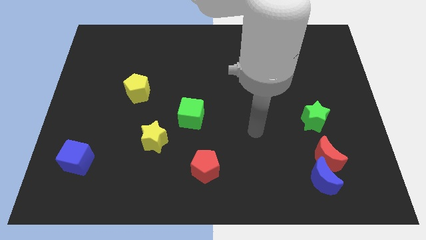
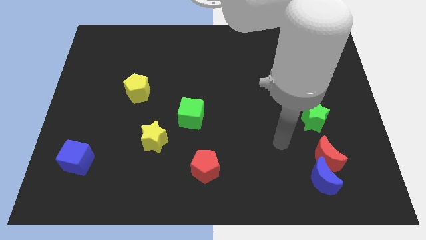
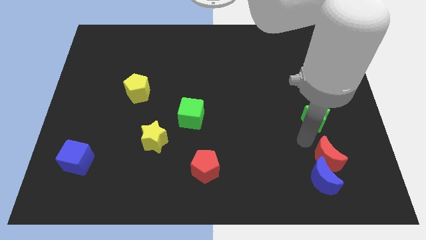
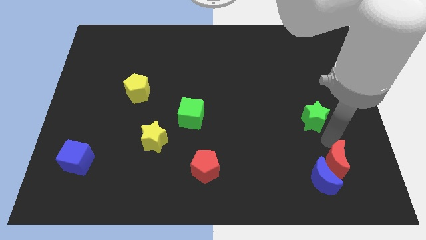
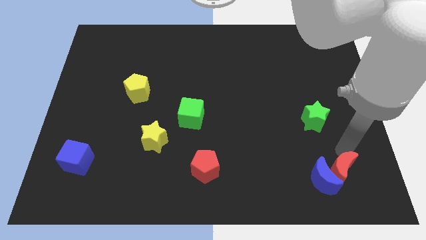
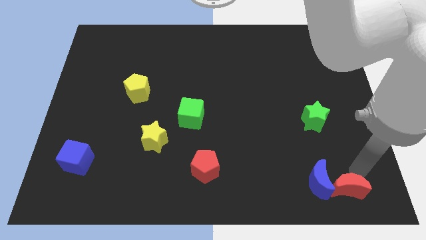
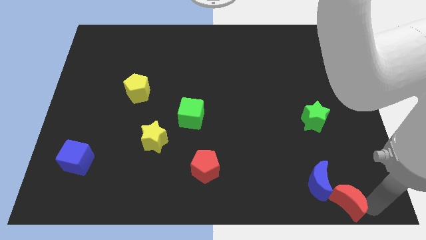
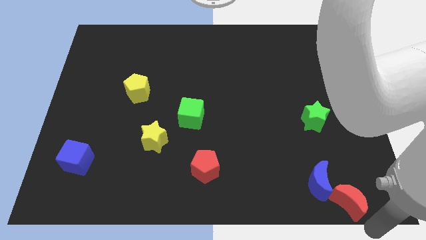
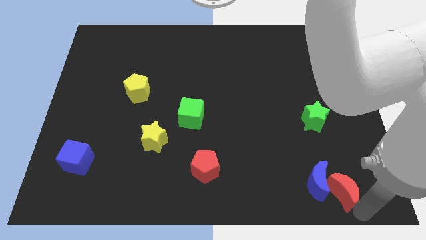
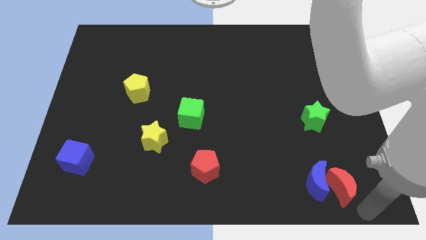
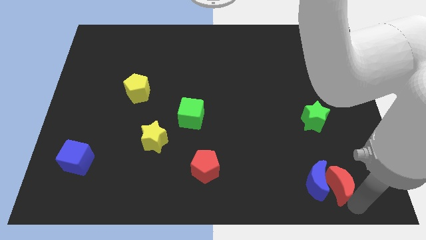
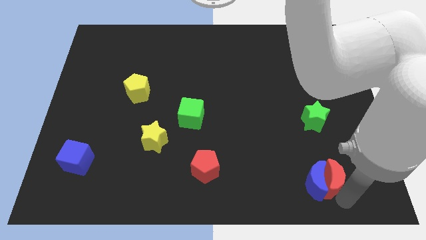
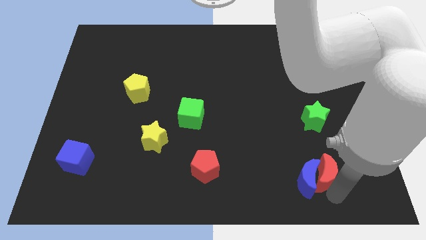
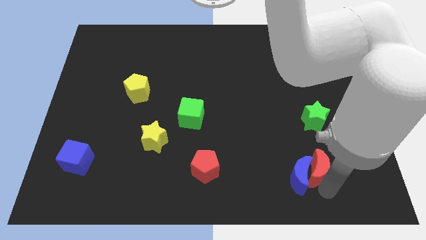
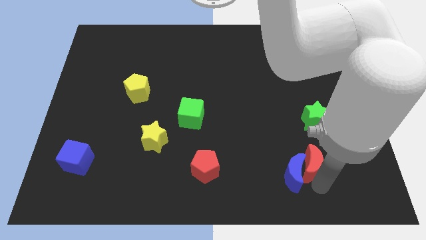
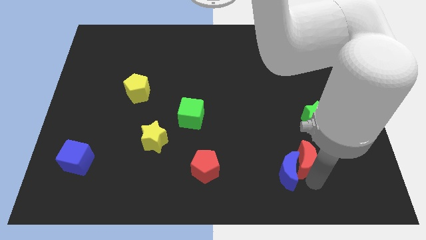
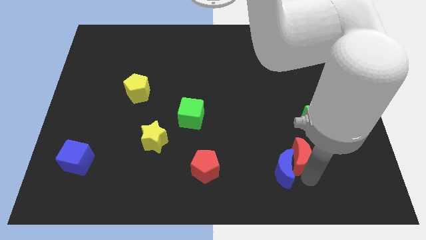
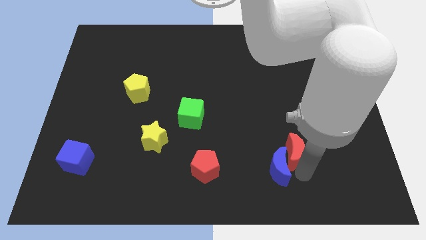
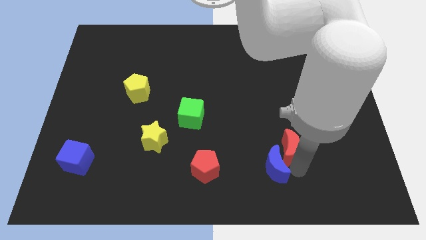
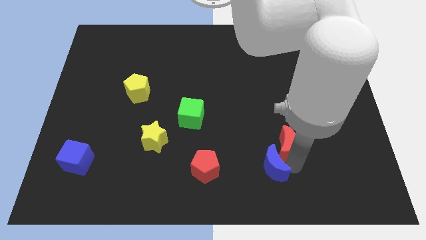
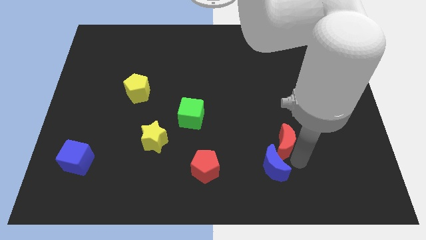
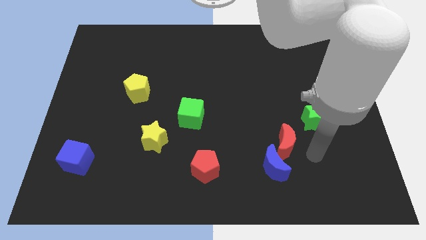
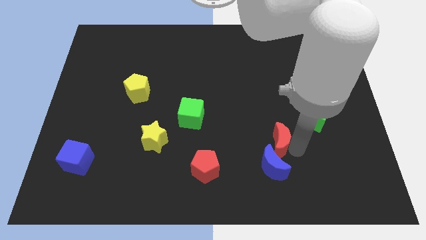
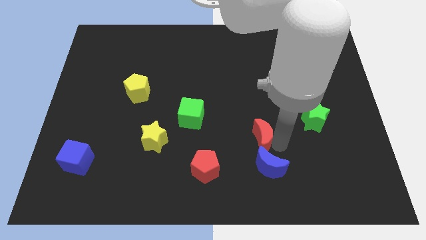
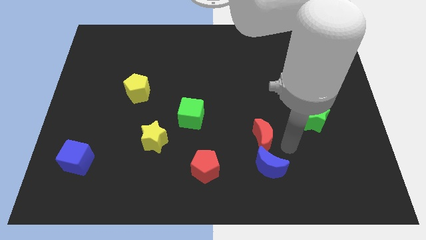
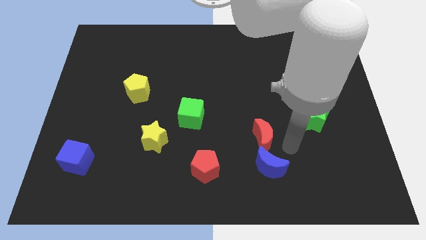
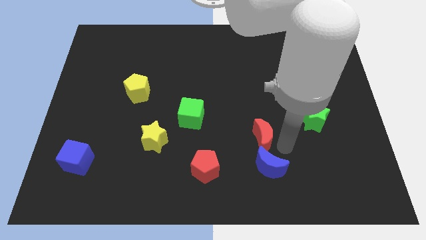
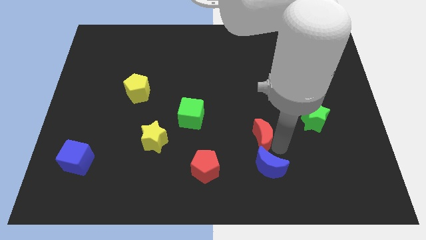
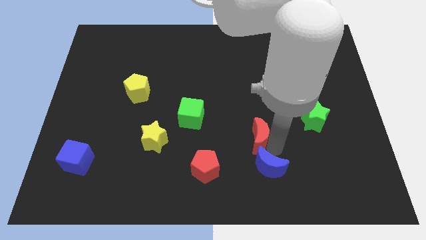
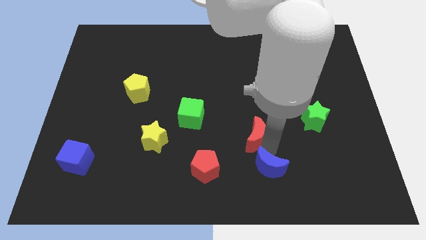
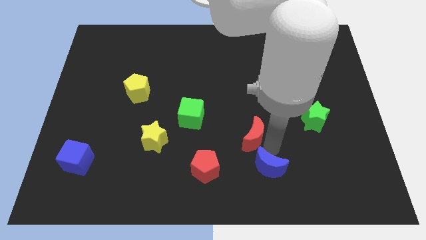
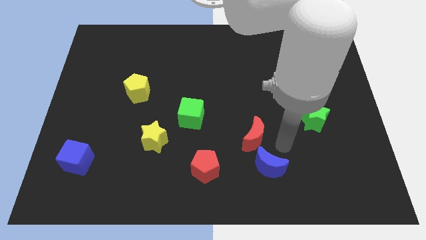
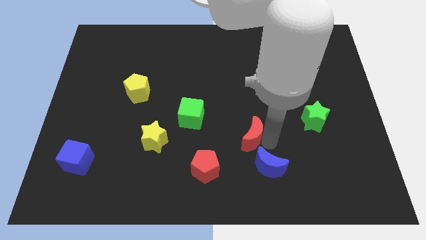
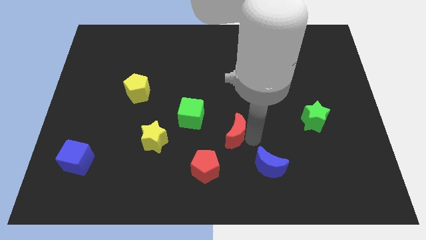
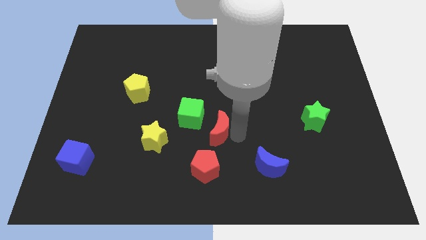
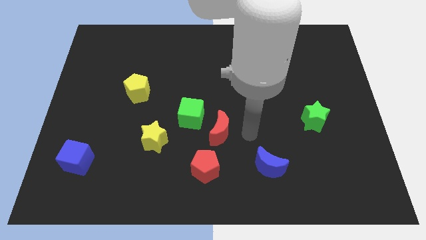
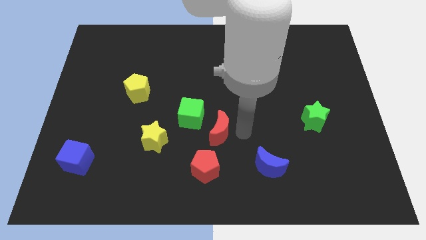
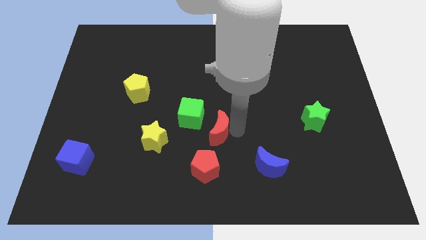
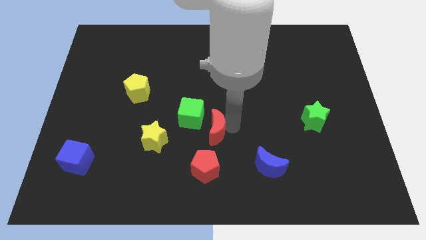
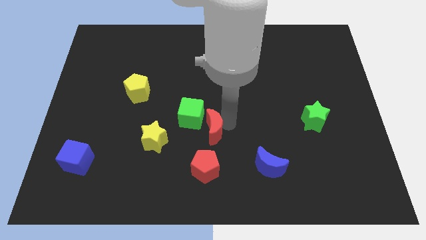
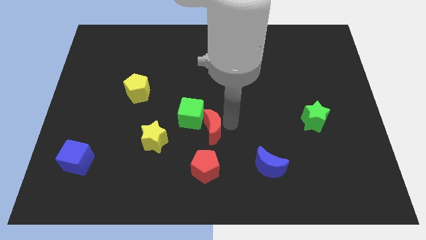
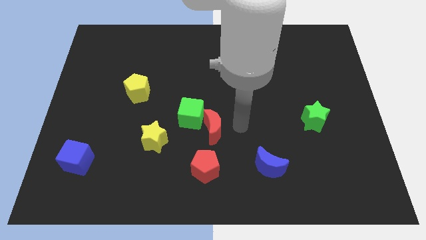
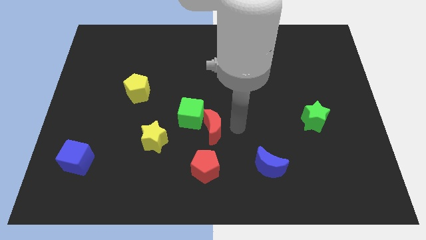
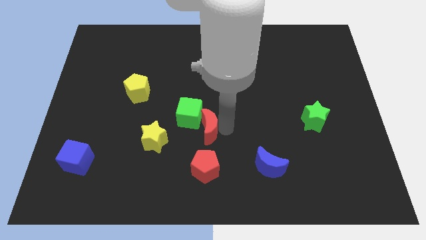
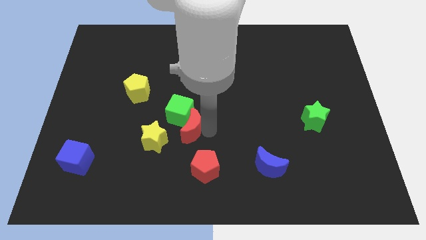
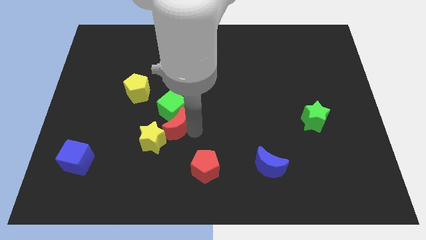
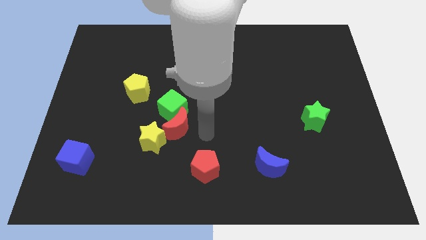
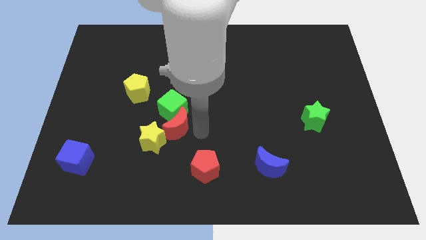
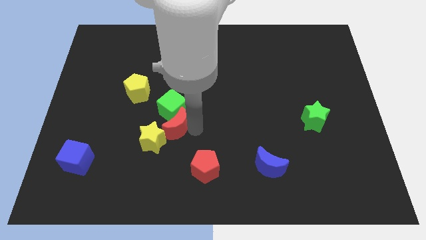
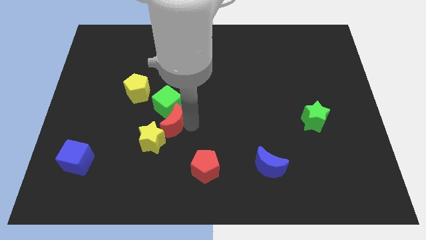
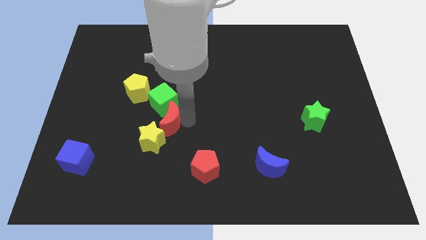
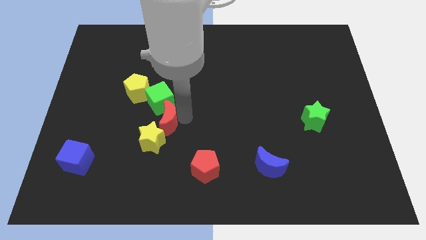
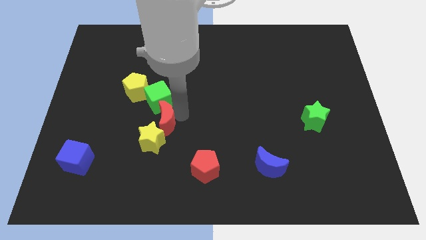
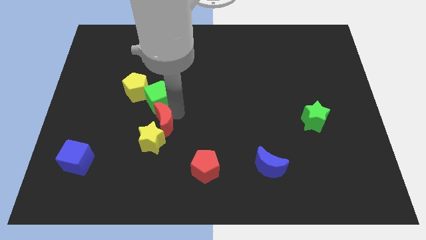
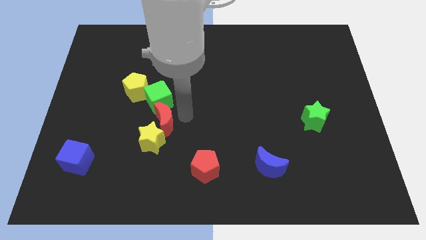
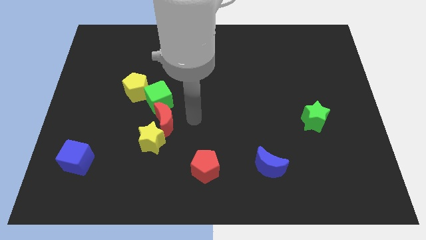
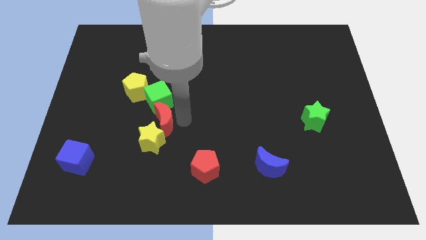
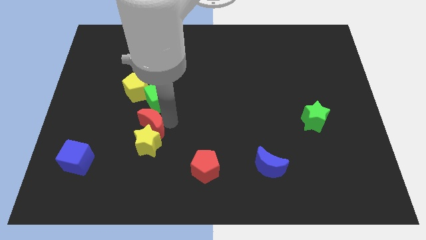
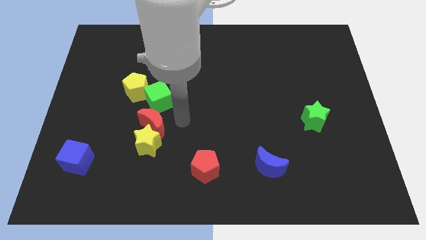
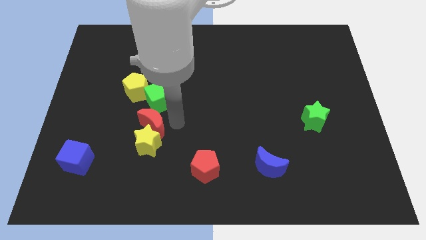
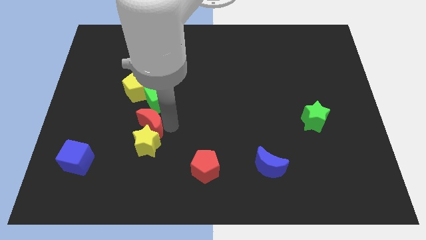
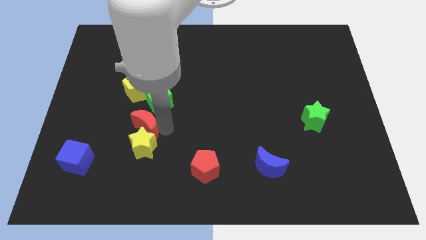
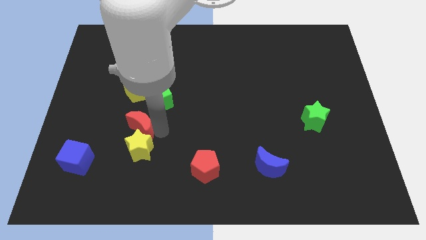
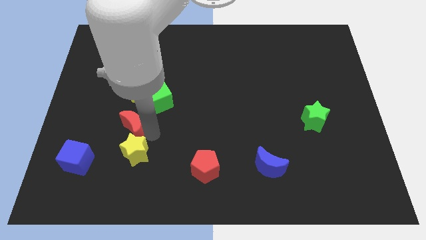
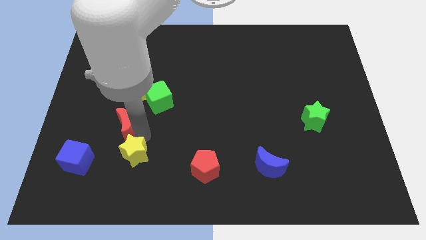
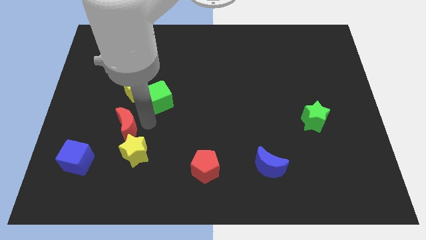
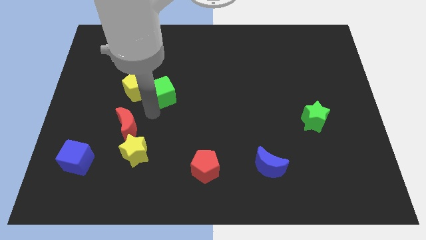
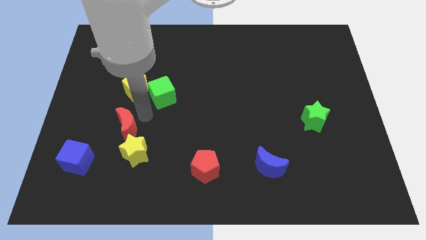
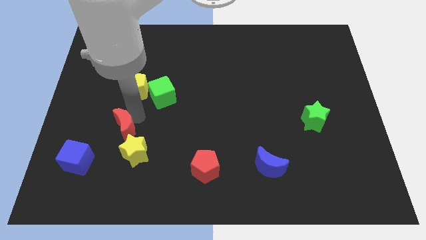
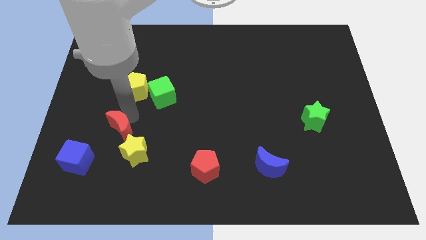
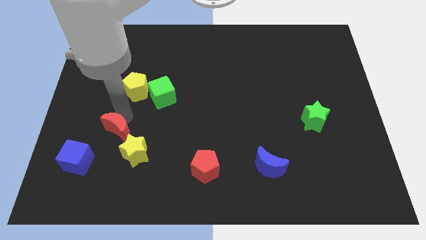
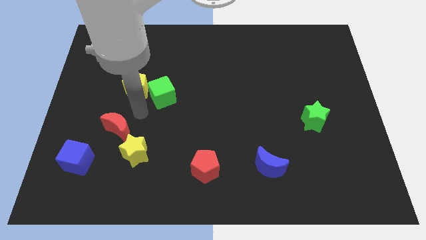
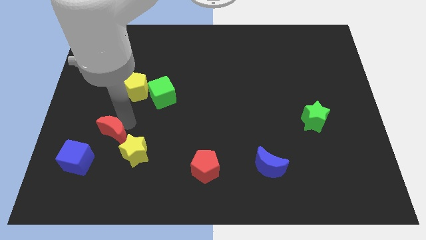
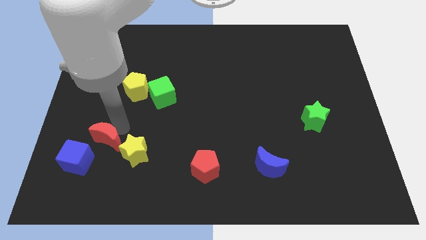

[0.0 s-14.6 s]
put the red moon just left of the yellow star
